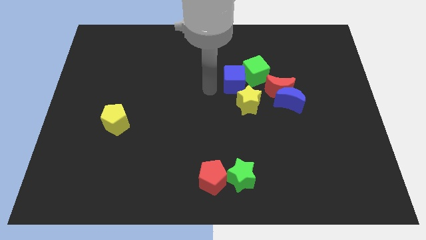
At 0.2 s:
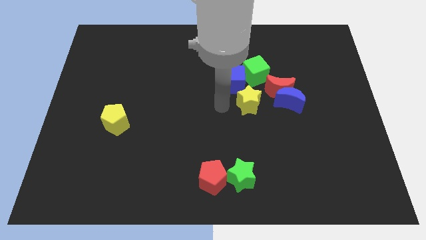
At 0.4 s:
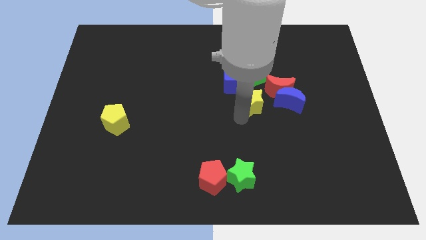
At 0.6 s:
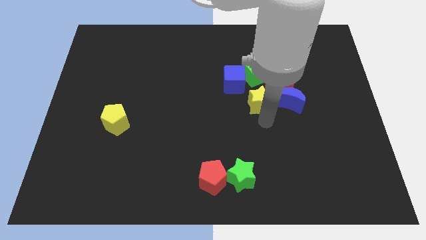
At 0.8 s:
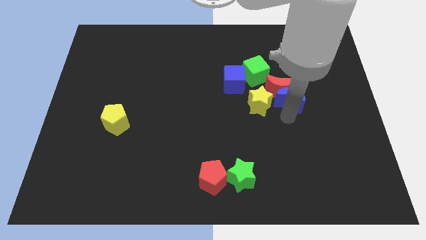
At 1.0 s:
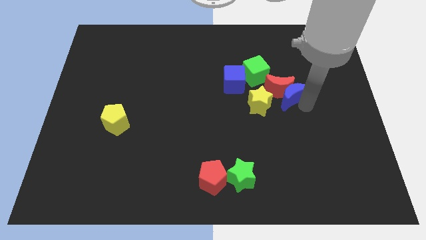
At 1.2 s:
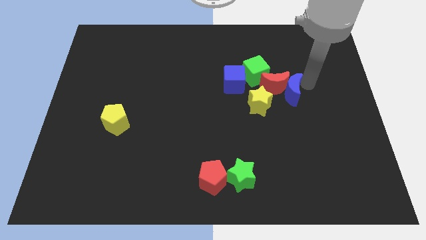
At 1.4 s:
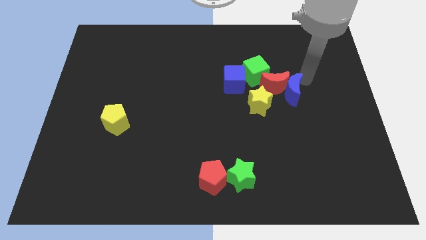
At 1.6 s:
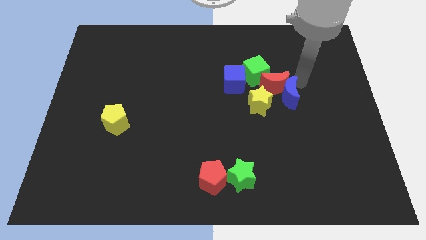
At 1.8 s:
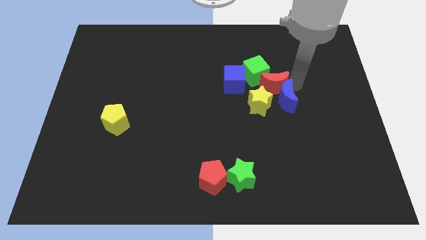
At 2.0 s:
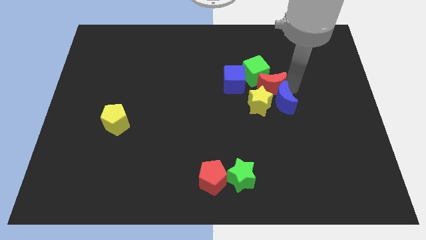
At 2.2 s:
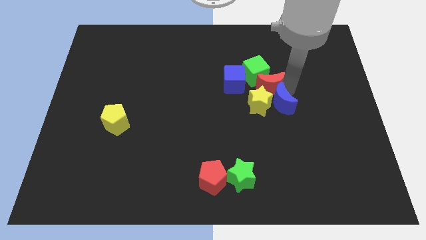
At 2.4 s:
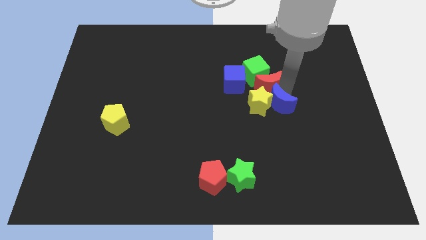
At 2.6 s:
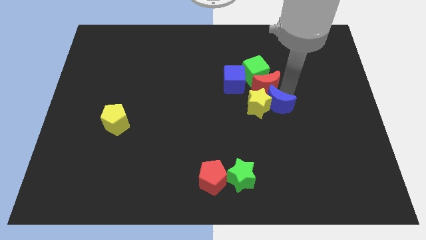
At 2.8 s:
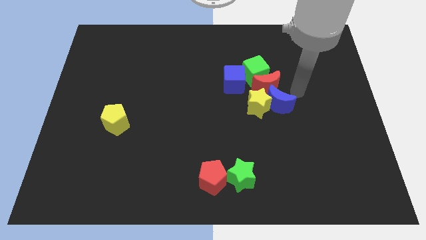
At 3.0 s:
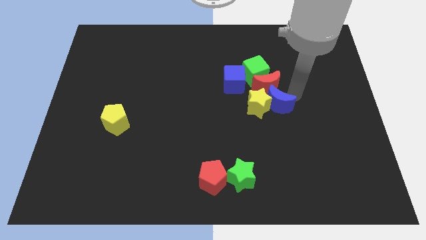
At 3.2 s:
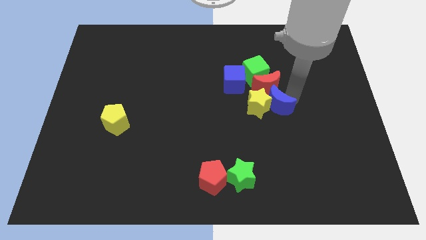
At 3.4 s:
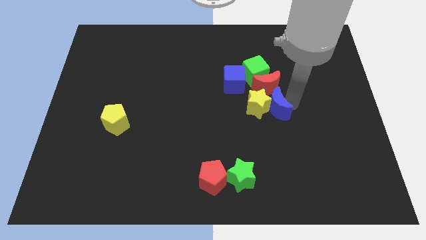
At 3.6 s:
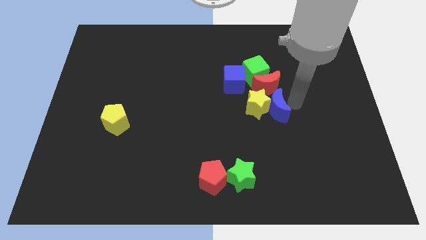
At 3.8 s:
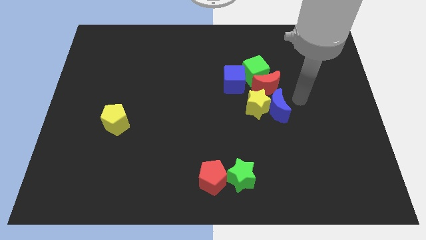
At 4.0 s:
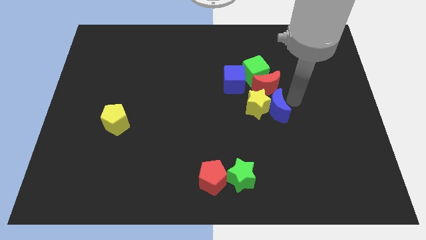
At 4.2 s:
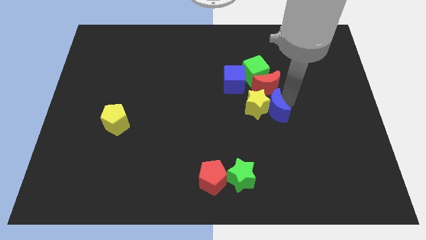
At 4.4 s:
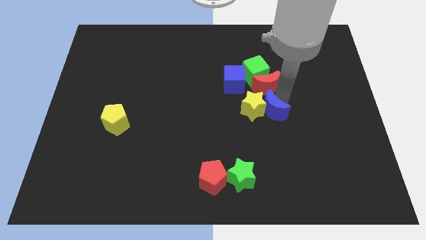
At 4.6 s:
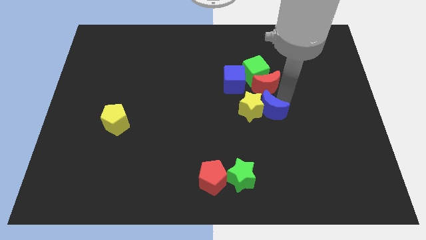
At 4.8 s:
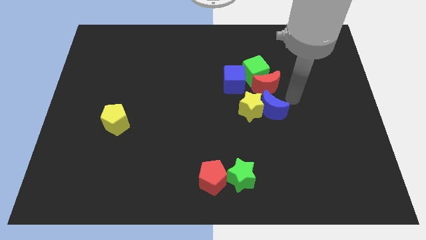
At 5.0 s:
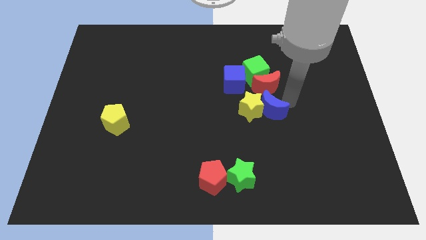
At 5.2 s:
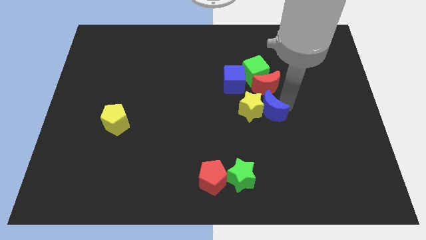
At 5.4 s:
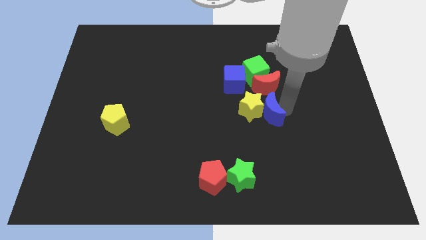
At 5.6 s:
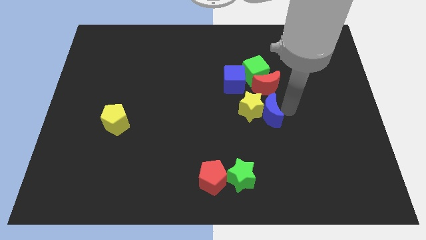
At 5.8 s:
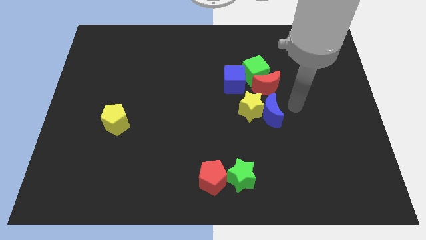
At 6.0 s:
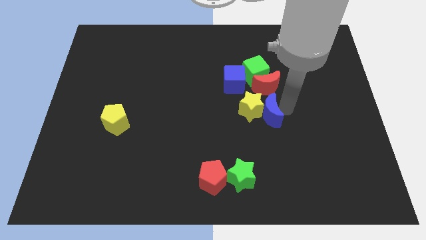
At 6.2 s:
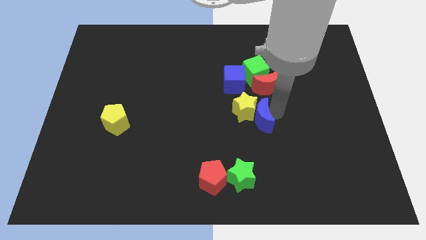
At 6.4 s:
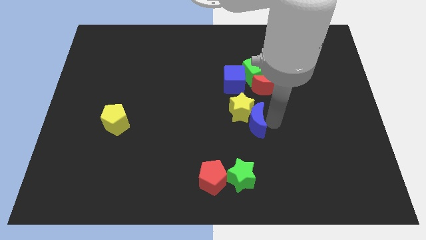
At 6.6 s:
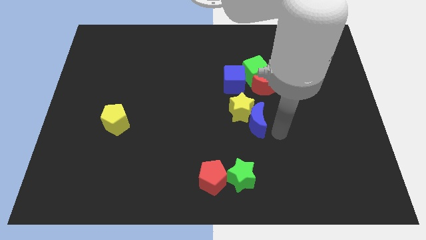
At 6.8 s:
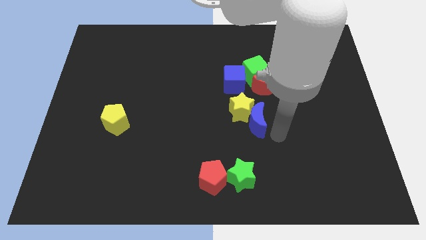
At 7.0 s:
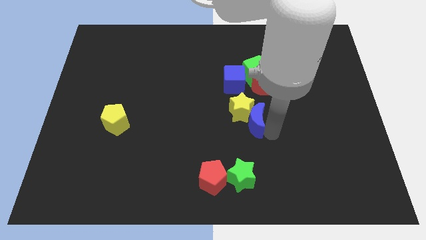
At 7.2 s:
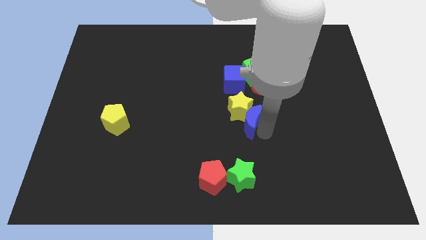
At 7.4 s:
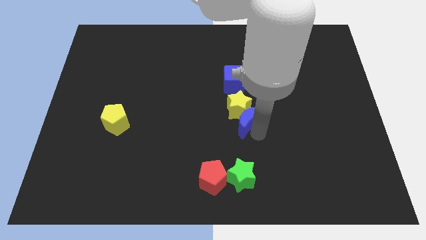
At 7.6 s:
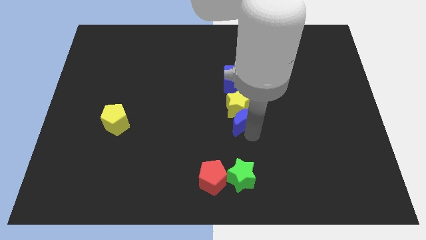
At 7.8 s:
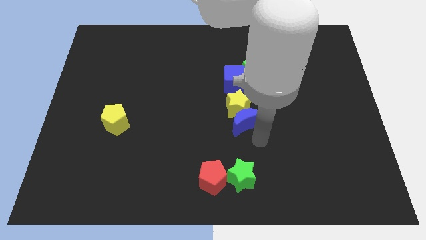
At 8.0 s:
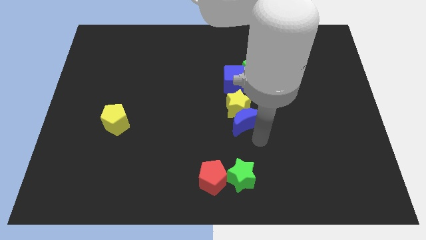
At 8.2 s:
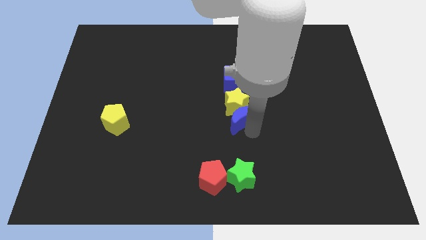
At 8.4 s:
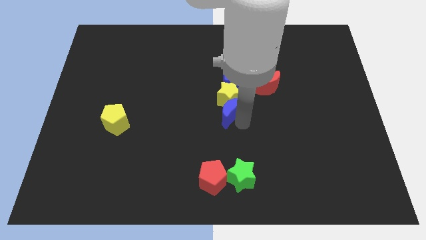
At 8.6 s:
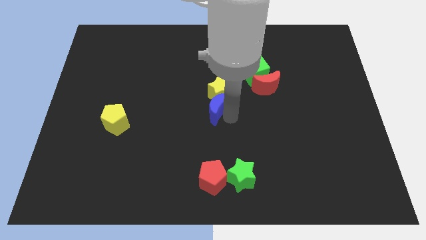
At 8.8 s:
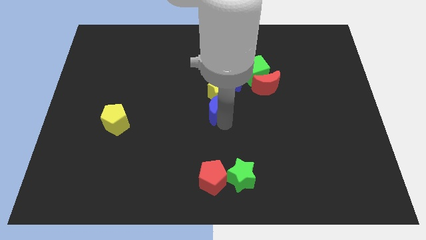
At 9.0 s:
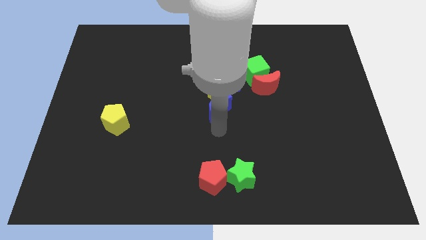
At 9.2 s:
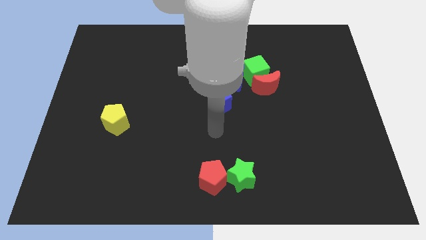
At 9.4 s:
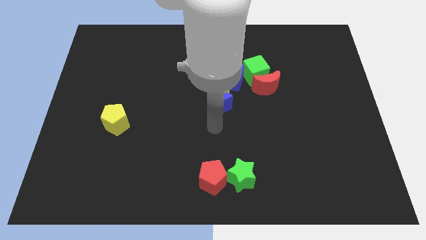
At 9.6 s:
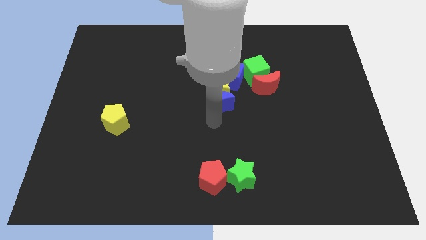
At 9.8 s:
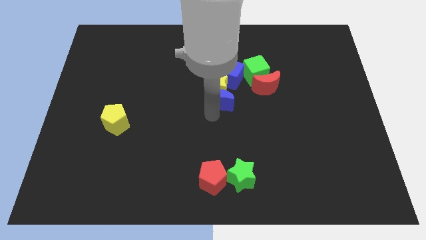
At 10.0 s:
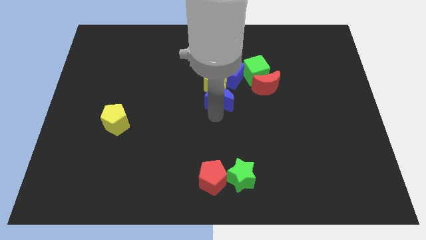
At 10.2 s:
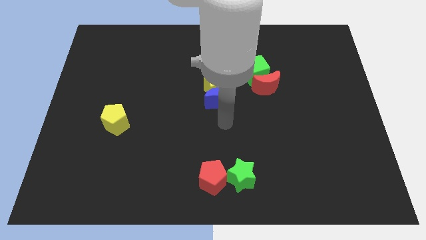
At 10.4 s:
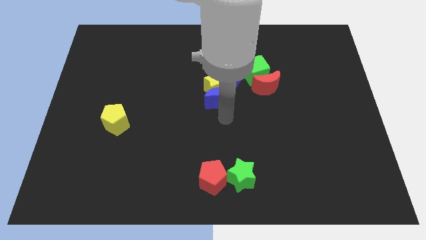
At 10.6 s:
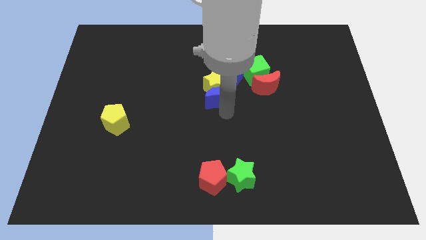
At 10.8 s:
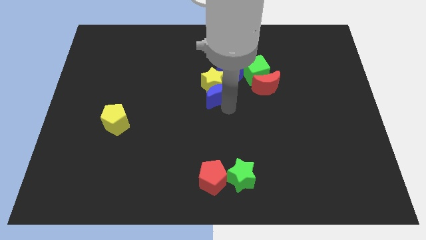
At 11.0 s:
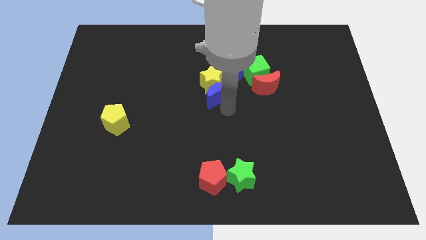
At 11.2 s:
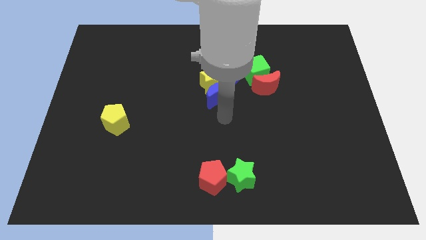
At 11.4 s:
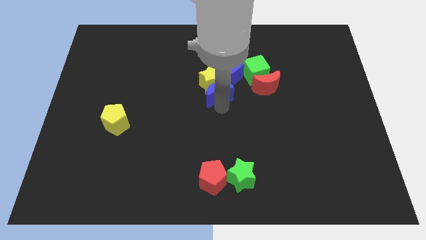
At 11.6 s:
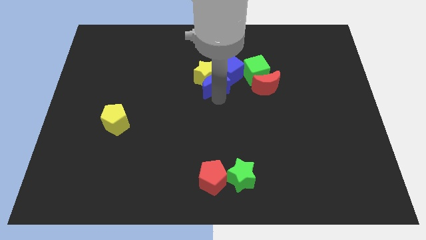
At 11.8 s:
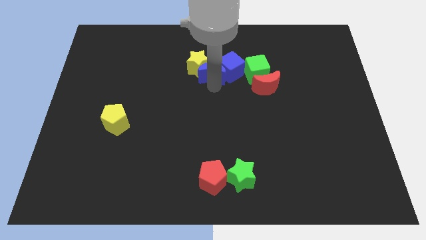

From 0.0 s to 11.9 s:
push the blue moon to the top left of the blue cube

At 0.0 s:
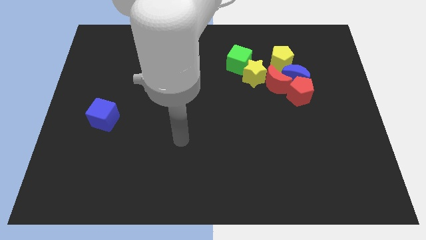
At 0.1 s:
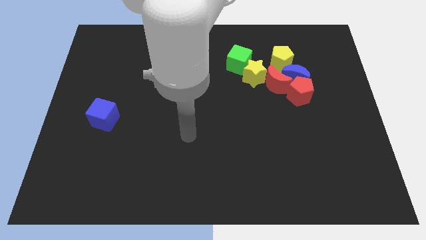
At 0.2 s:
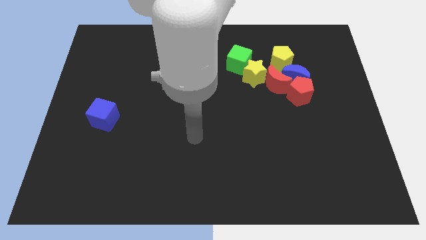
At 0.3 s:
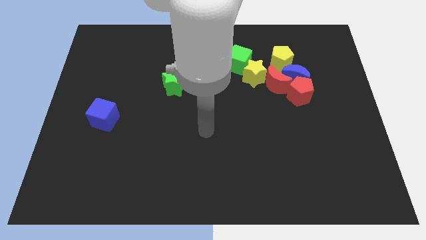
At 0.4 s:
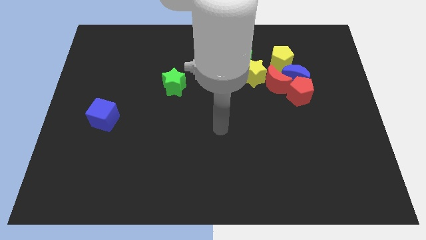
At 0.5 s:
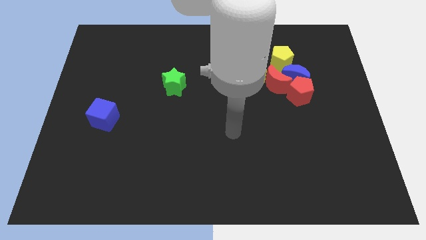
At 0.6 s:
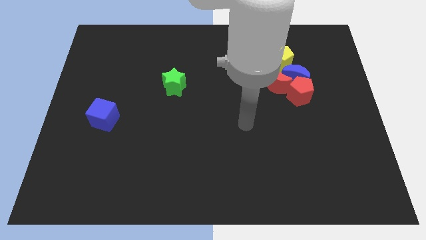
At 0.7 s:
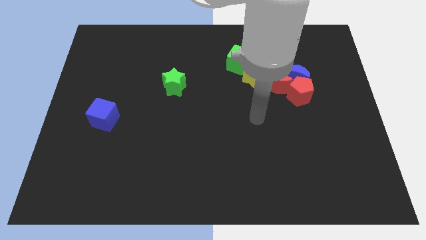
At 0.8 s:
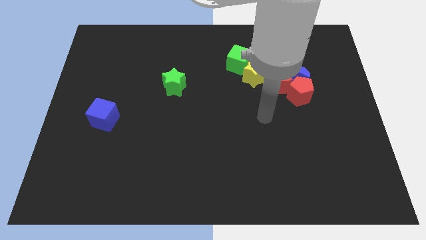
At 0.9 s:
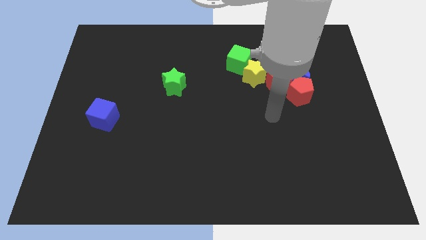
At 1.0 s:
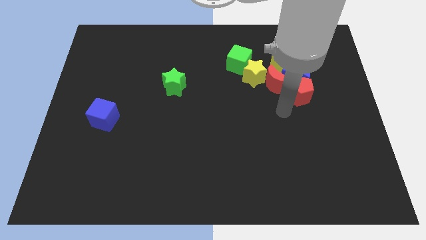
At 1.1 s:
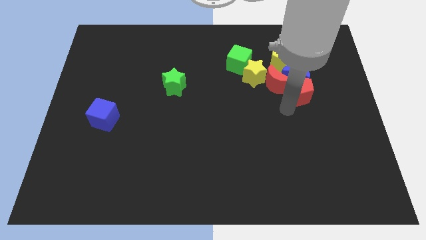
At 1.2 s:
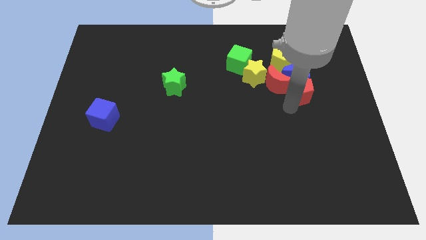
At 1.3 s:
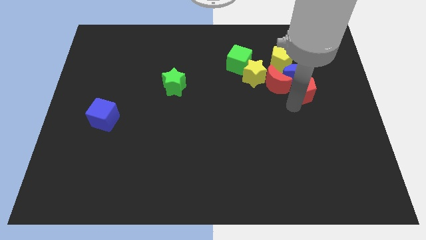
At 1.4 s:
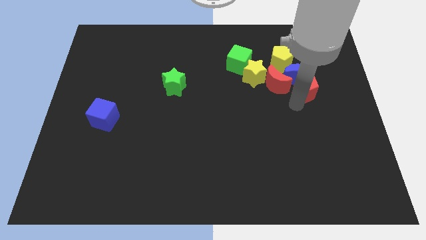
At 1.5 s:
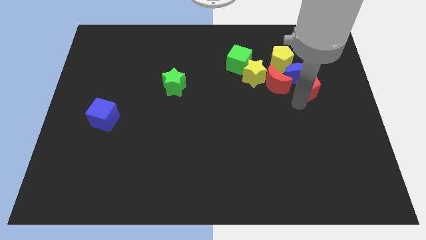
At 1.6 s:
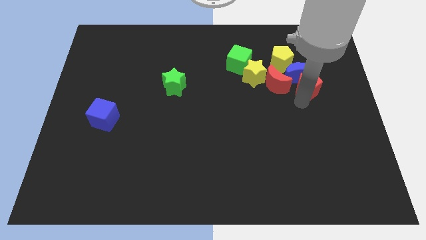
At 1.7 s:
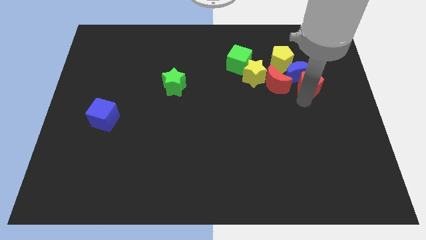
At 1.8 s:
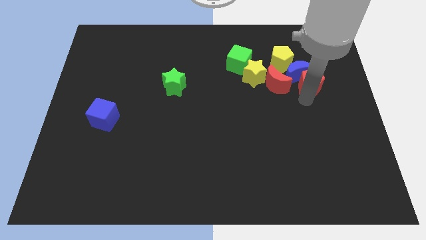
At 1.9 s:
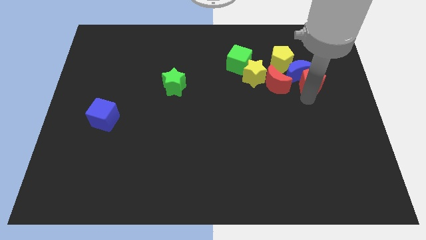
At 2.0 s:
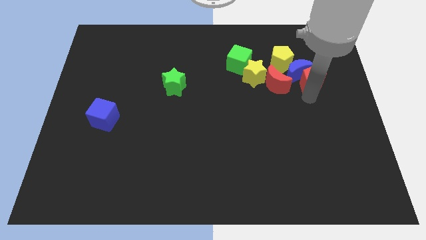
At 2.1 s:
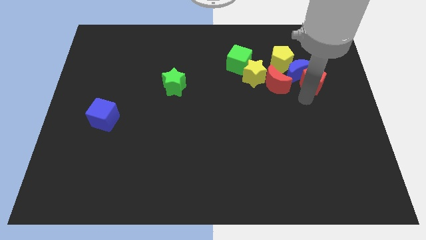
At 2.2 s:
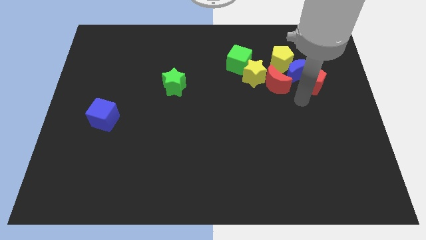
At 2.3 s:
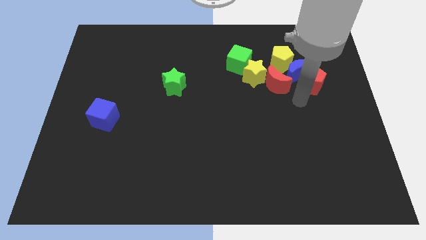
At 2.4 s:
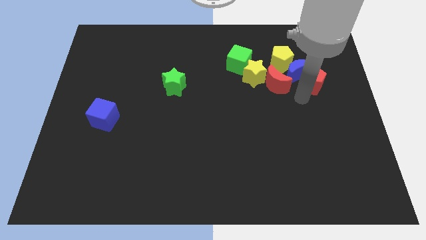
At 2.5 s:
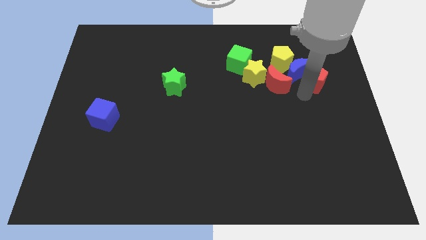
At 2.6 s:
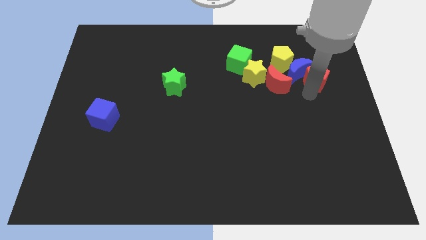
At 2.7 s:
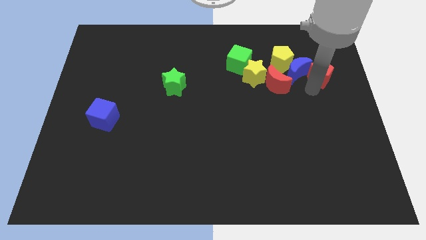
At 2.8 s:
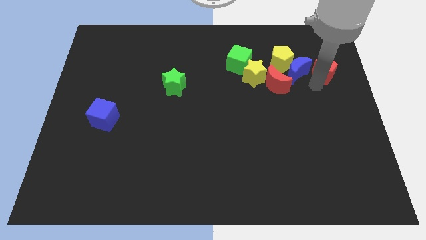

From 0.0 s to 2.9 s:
move the red pentagon right of the yellow pentagon
